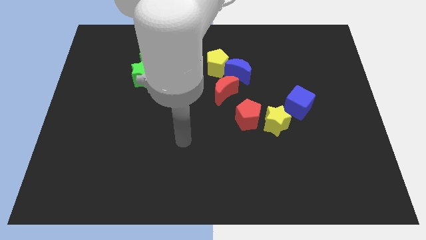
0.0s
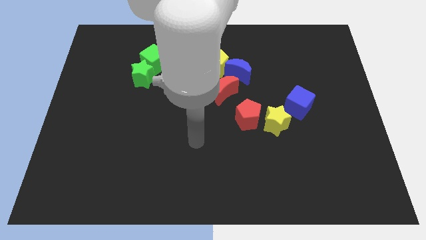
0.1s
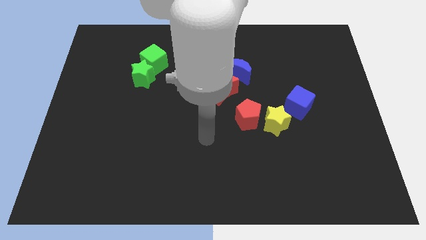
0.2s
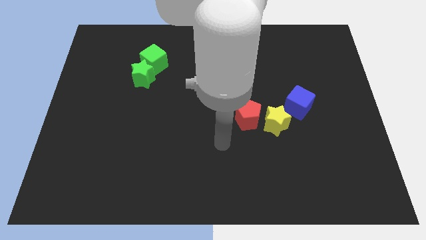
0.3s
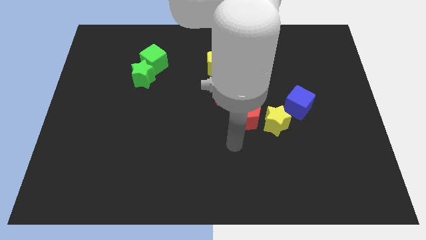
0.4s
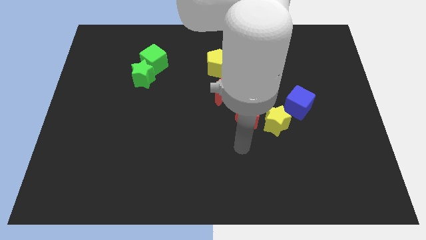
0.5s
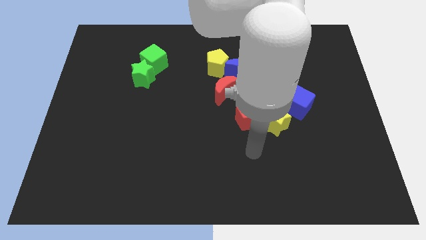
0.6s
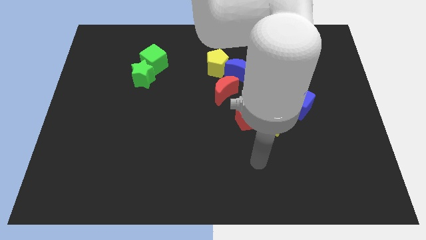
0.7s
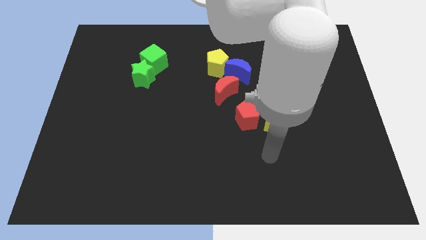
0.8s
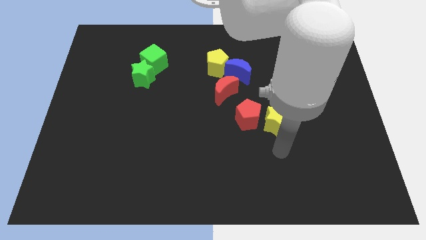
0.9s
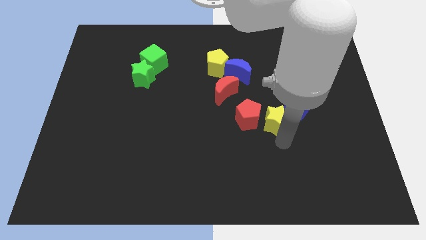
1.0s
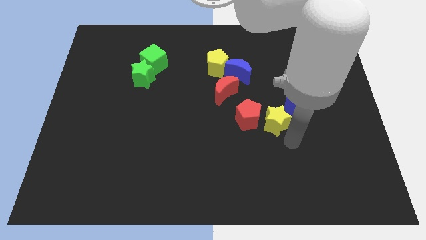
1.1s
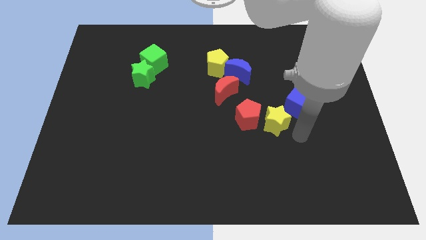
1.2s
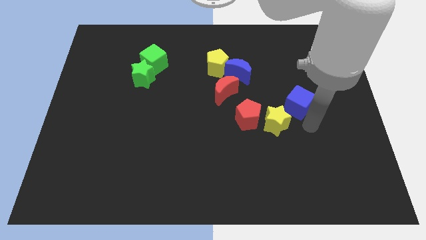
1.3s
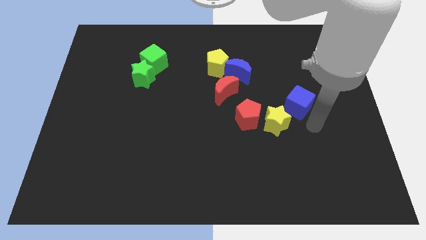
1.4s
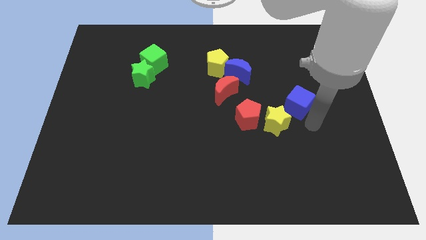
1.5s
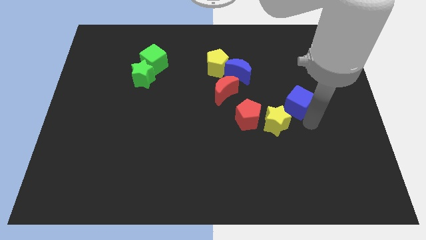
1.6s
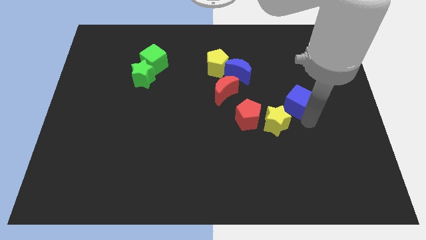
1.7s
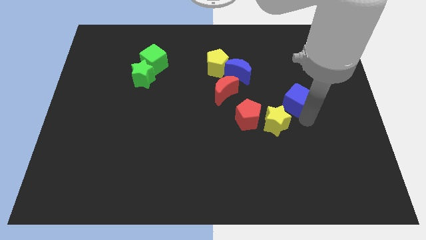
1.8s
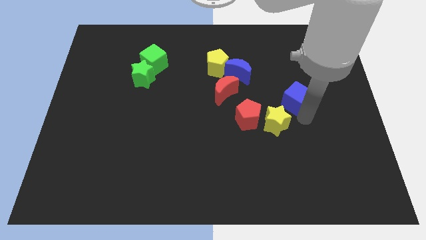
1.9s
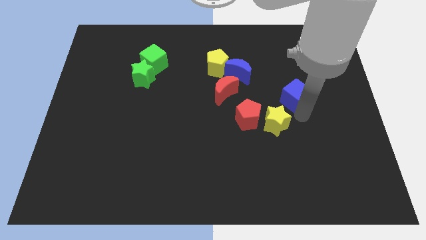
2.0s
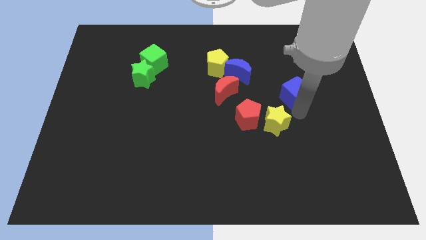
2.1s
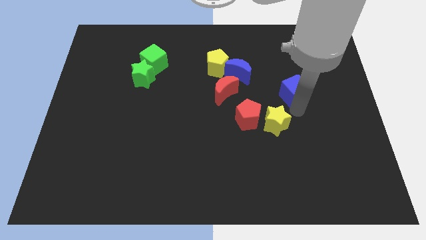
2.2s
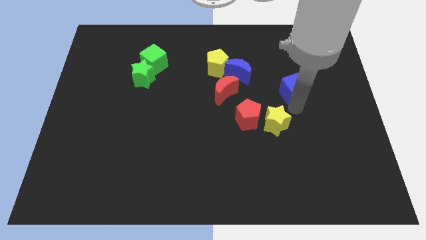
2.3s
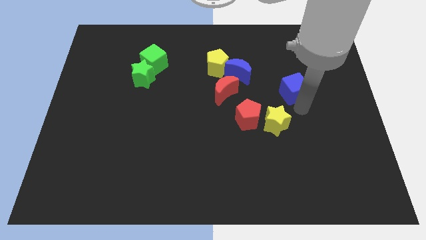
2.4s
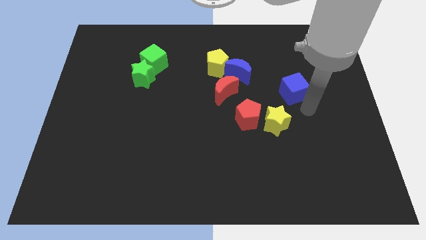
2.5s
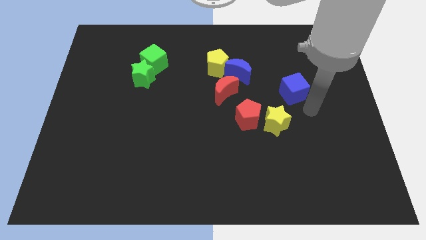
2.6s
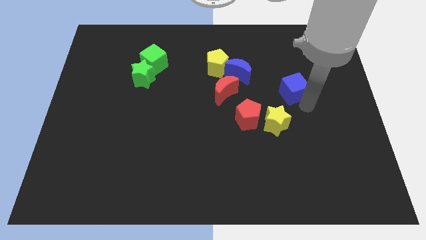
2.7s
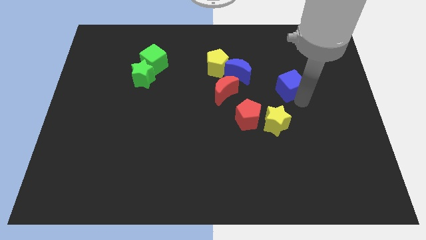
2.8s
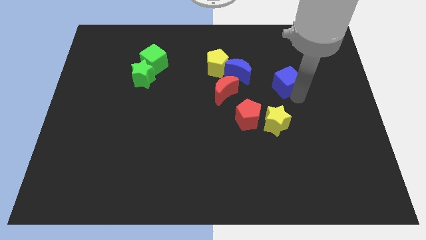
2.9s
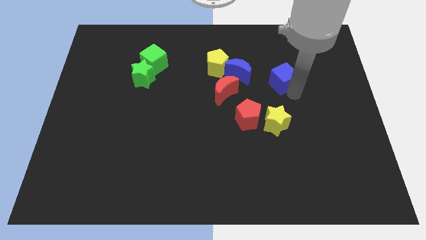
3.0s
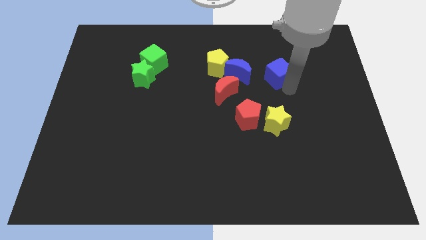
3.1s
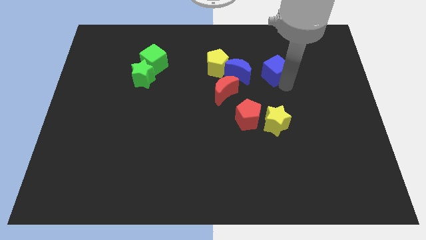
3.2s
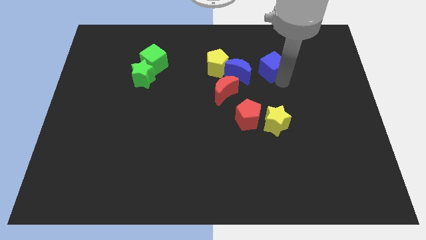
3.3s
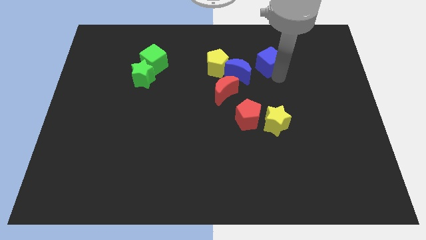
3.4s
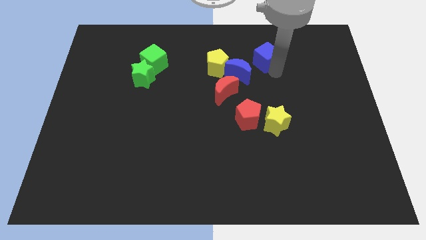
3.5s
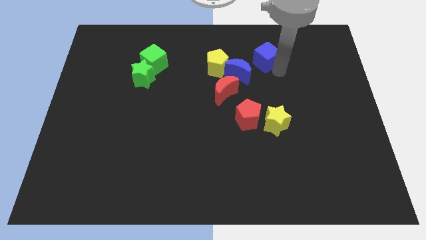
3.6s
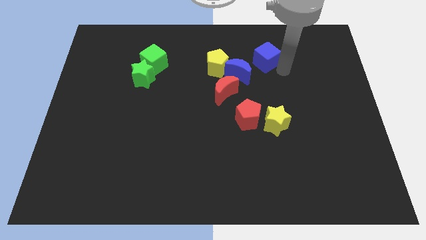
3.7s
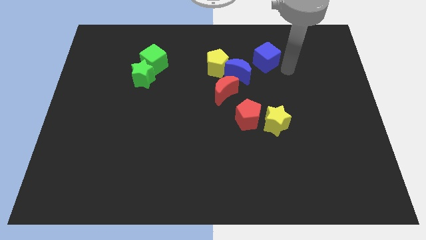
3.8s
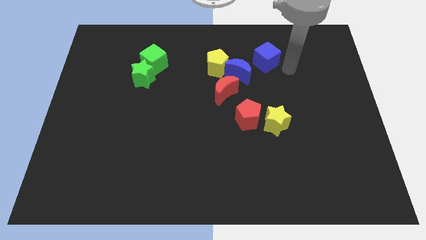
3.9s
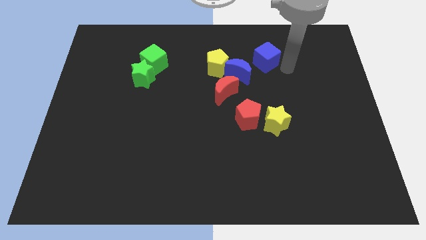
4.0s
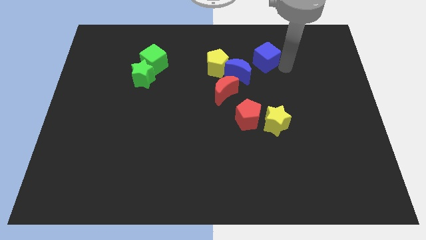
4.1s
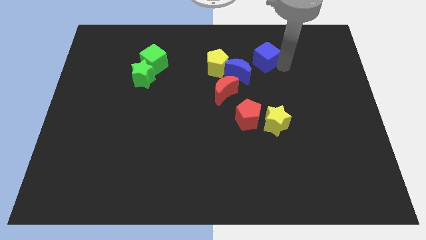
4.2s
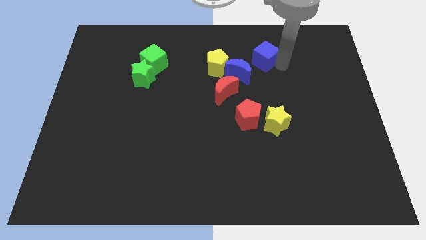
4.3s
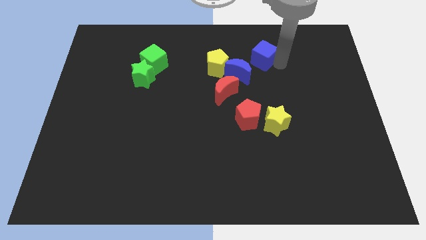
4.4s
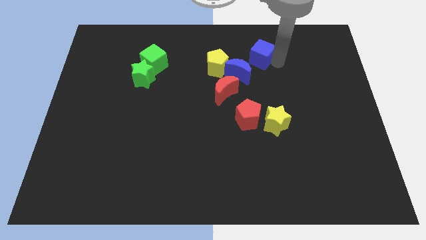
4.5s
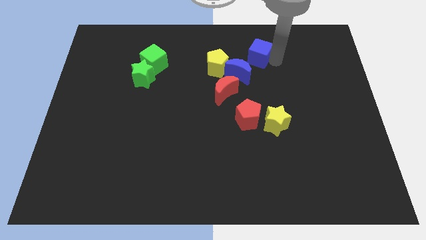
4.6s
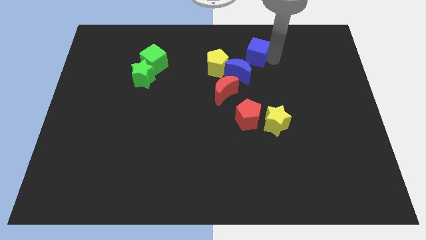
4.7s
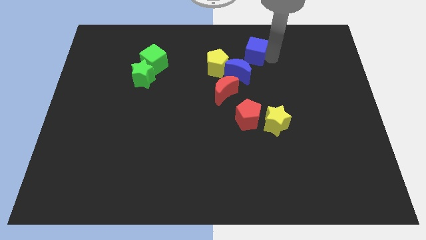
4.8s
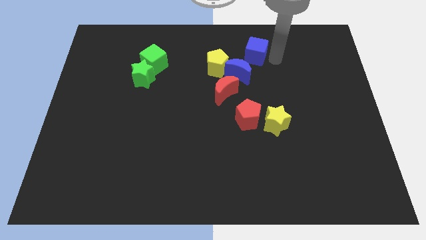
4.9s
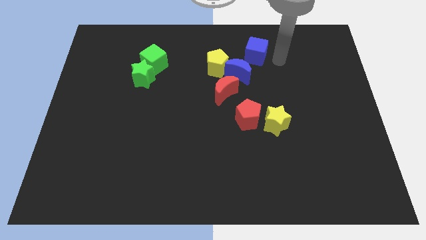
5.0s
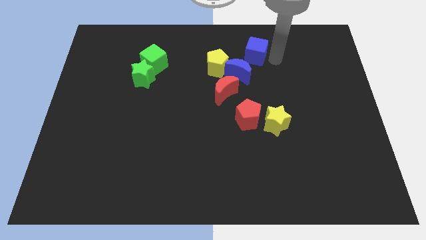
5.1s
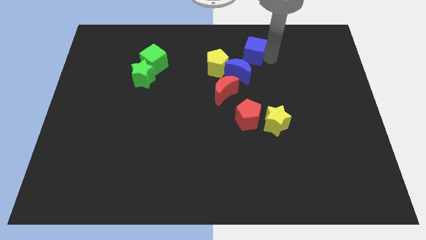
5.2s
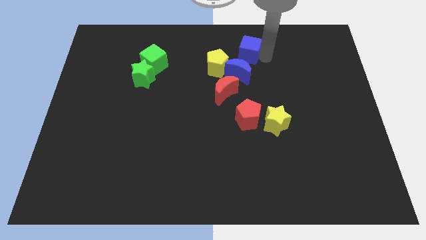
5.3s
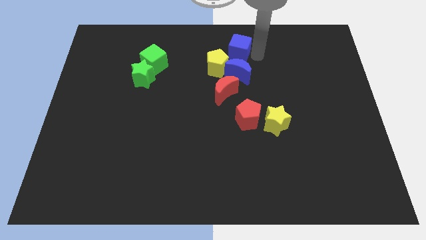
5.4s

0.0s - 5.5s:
put the blue cube to the top

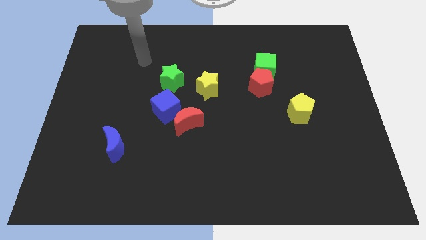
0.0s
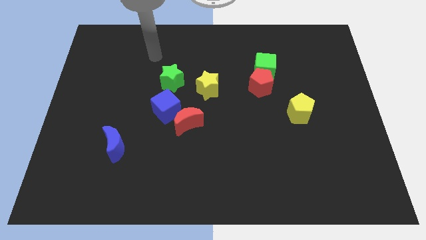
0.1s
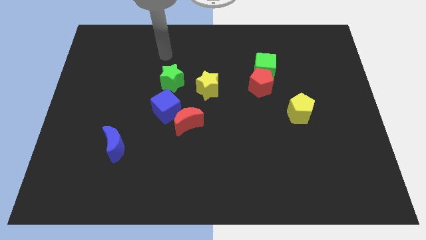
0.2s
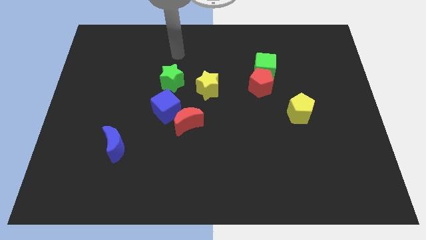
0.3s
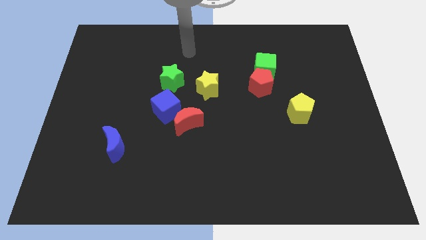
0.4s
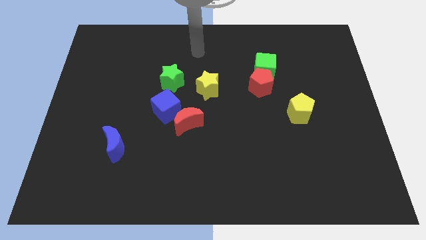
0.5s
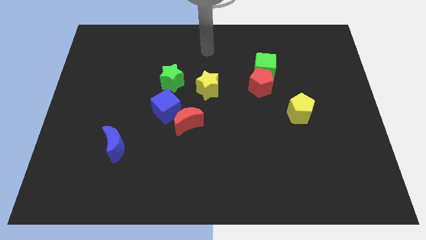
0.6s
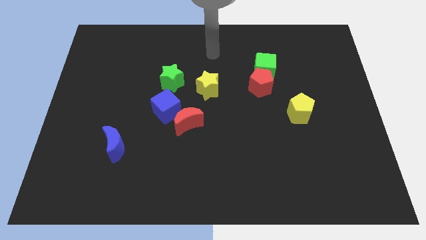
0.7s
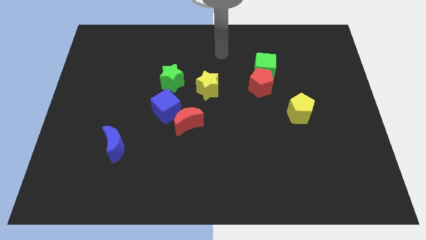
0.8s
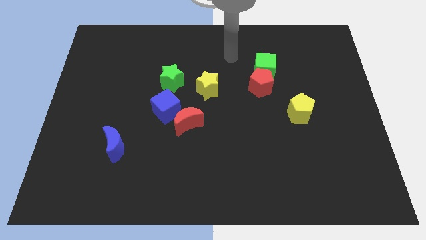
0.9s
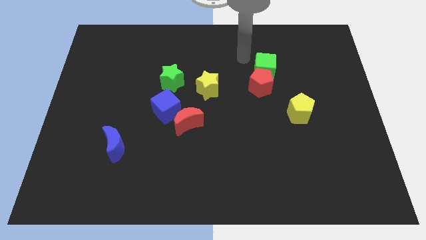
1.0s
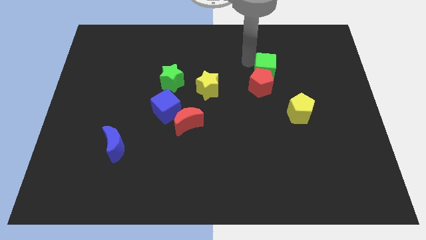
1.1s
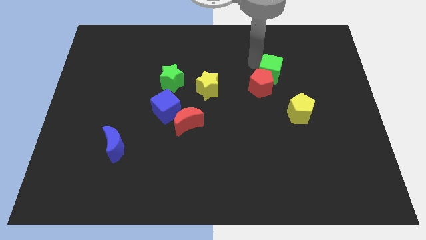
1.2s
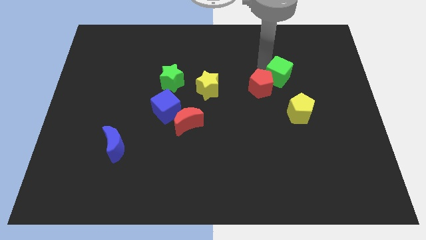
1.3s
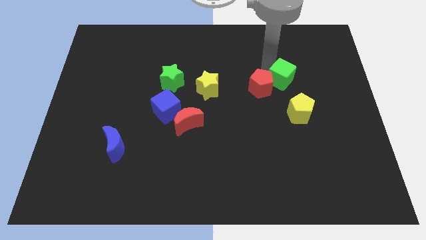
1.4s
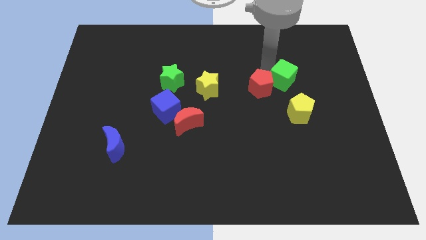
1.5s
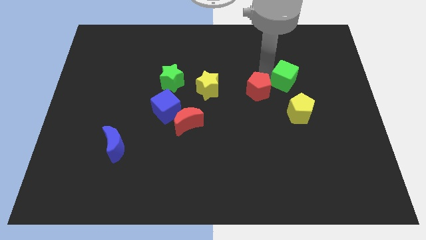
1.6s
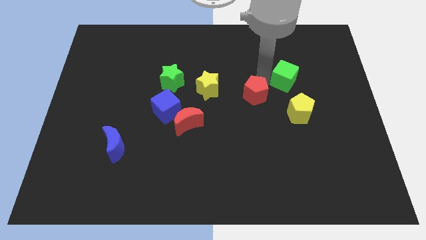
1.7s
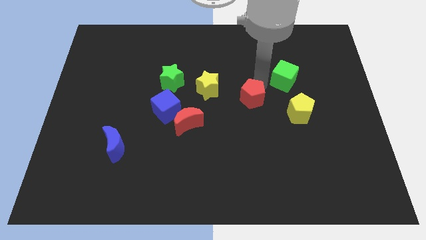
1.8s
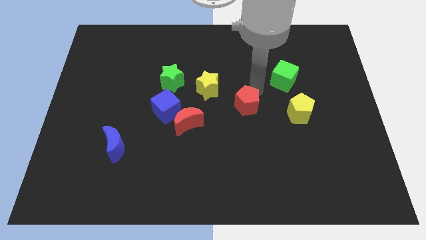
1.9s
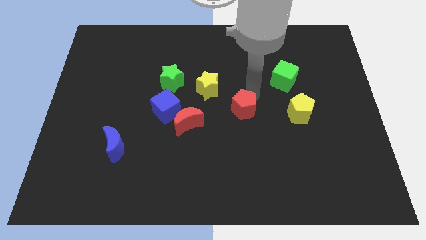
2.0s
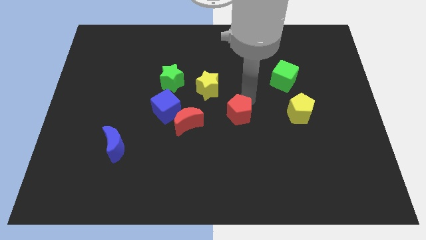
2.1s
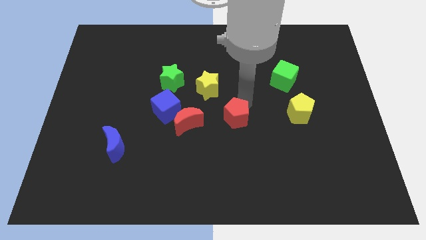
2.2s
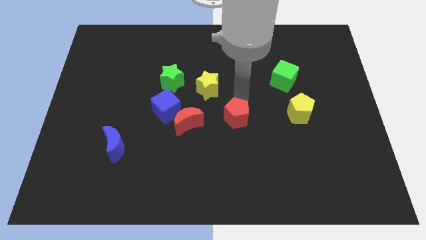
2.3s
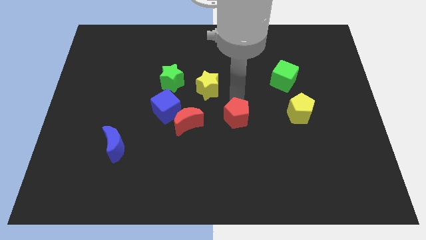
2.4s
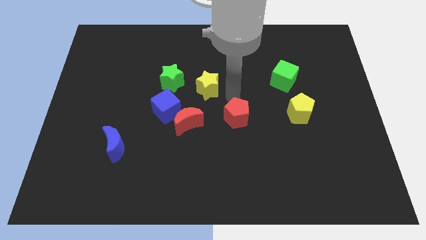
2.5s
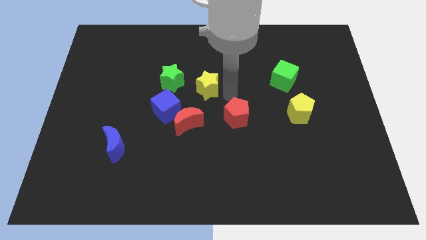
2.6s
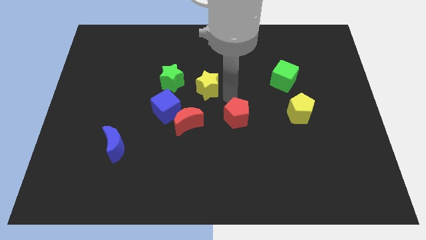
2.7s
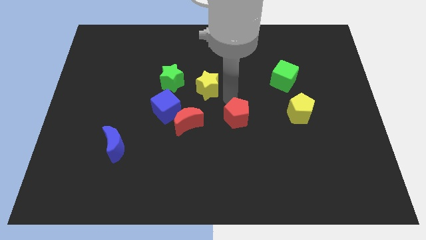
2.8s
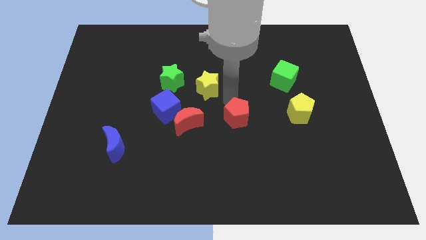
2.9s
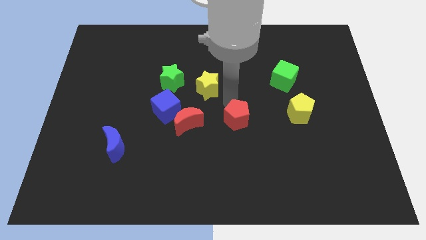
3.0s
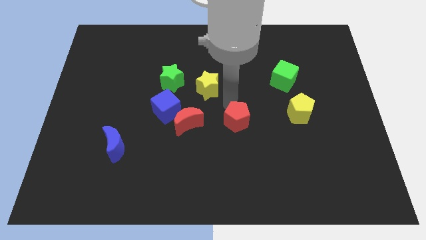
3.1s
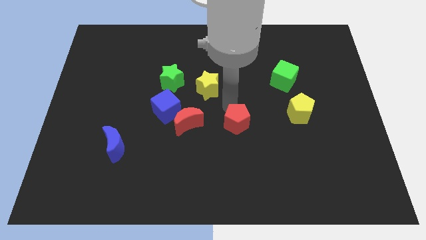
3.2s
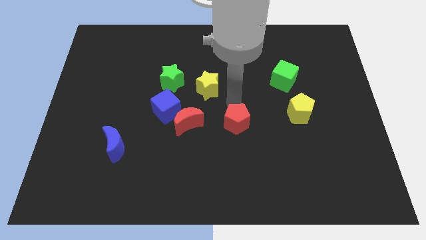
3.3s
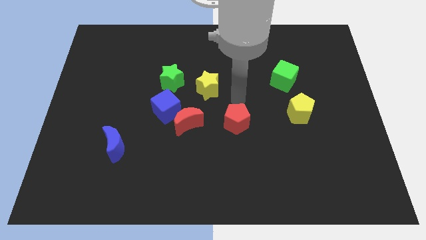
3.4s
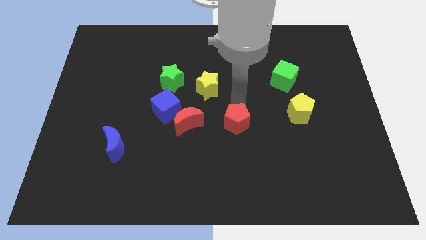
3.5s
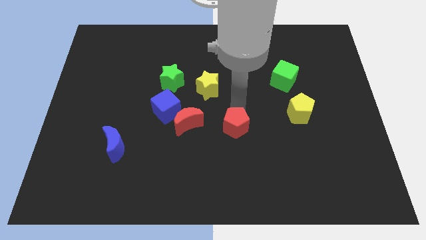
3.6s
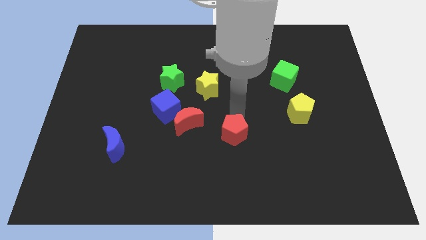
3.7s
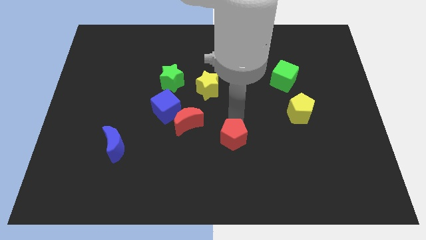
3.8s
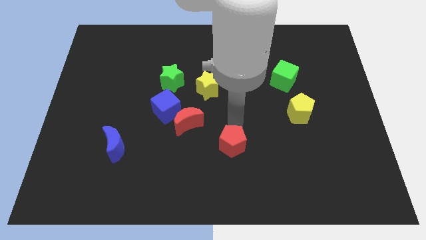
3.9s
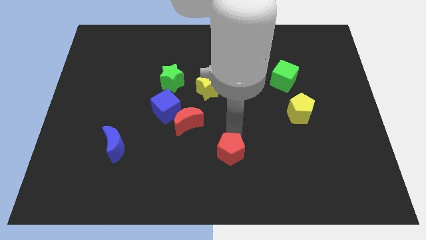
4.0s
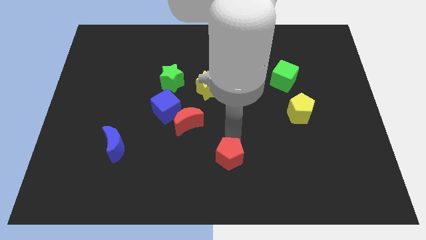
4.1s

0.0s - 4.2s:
slide the red pentagon to the bottom side
